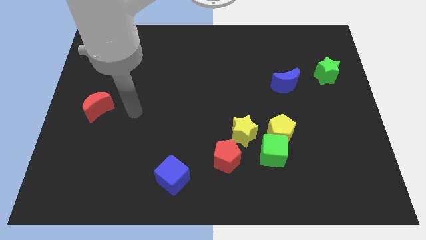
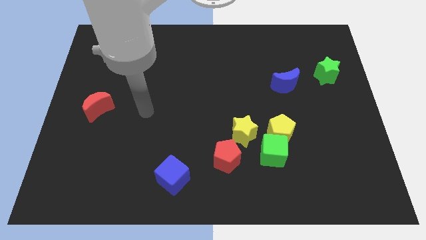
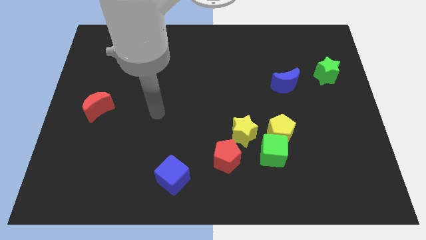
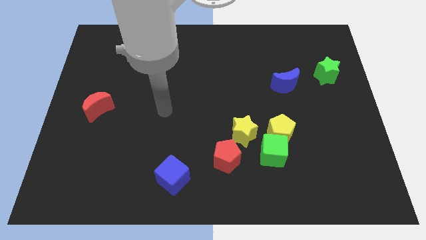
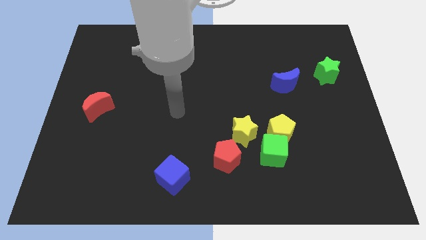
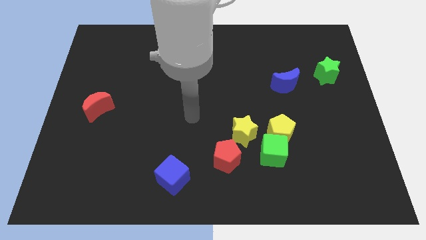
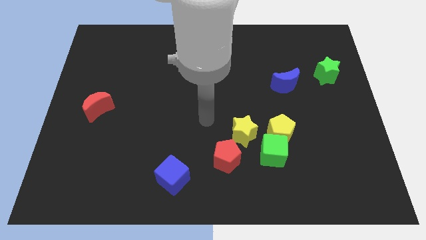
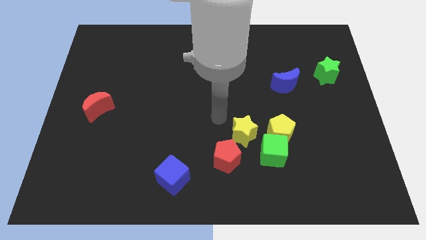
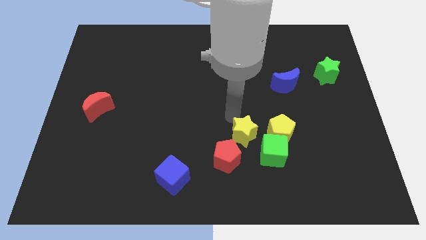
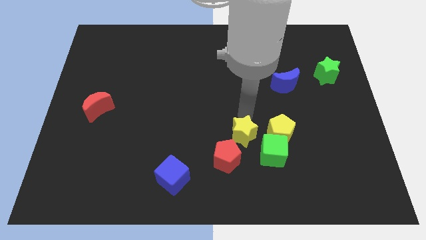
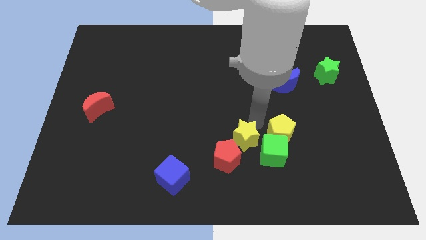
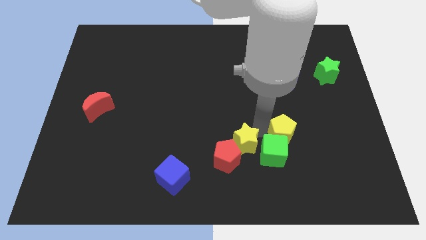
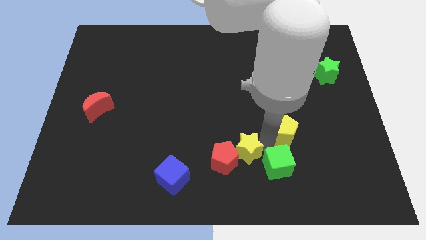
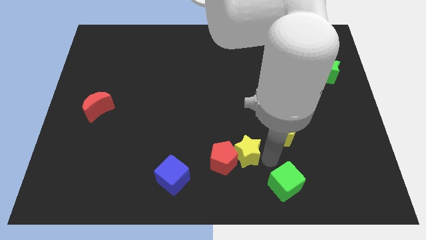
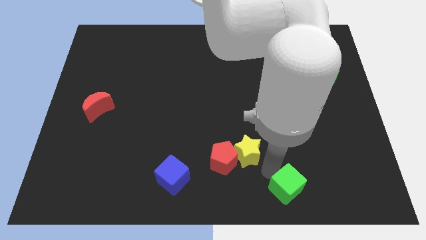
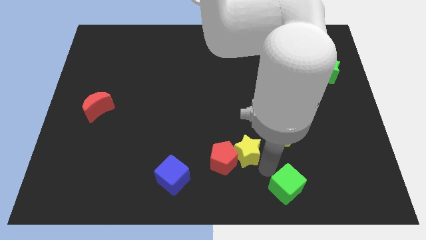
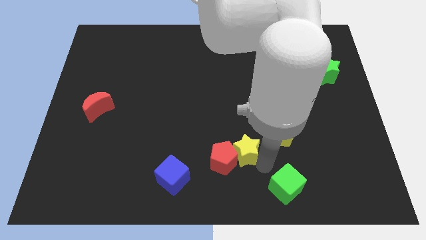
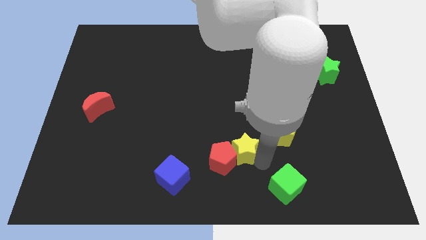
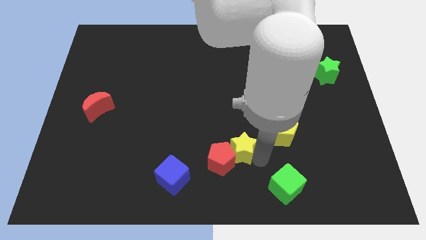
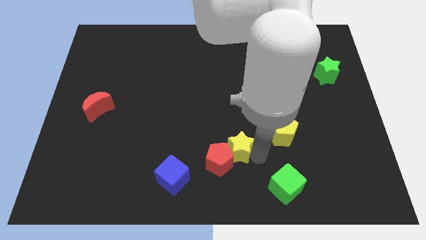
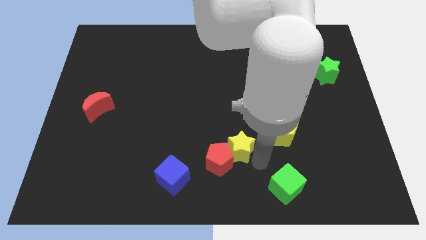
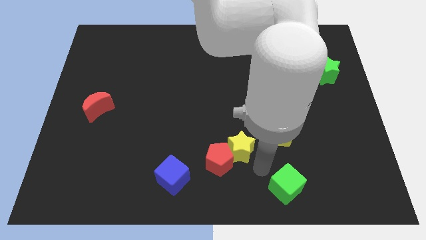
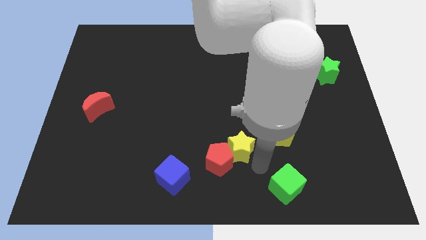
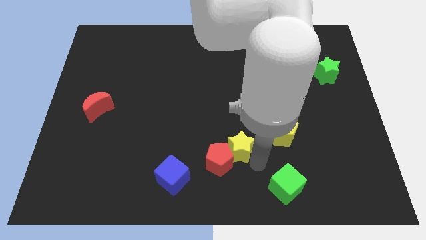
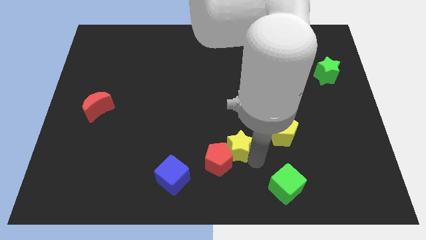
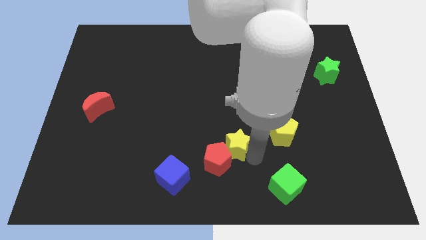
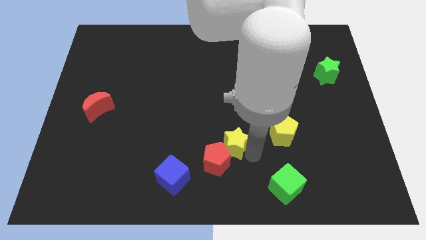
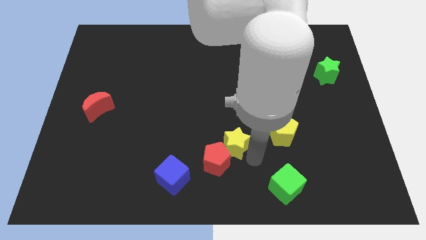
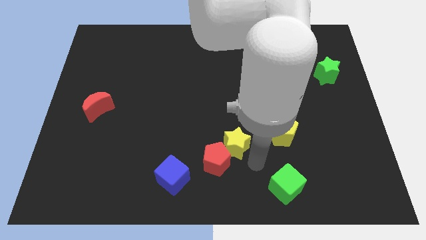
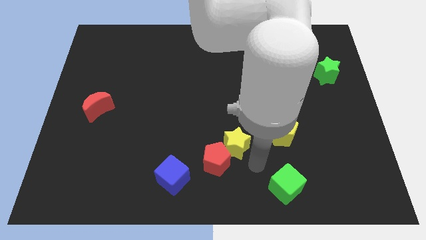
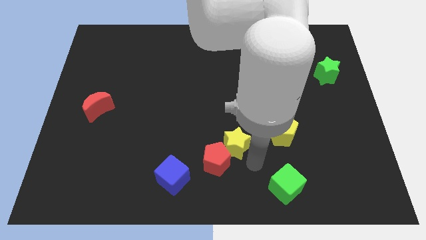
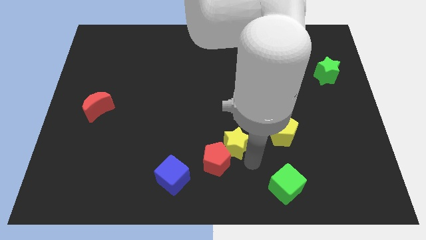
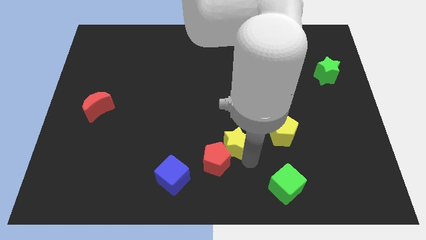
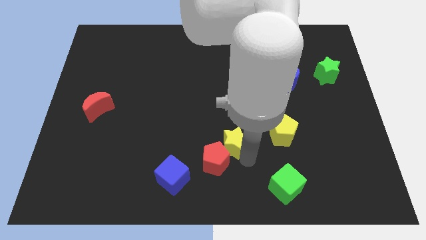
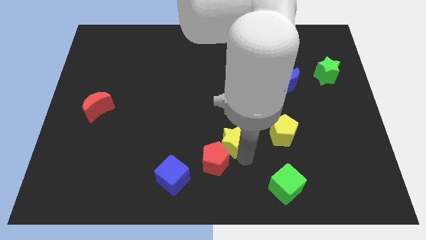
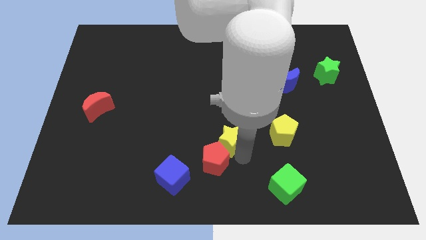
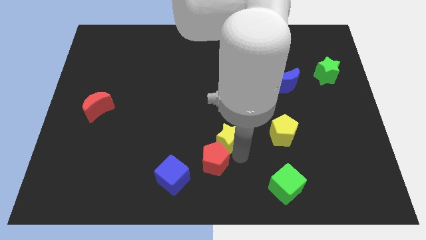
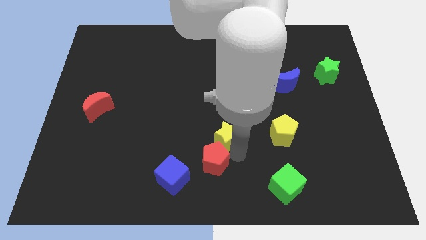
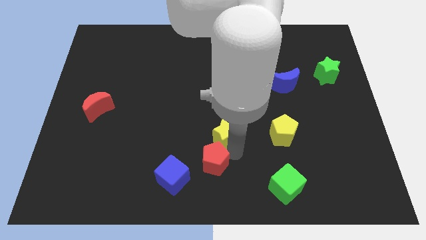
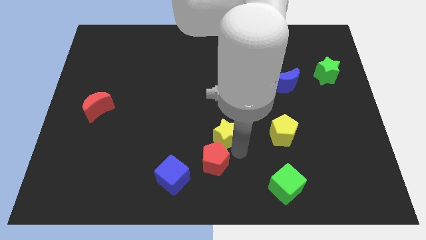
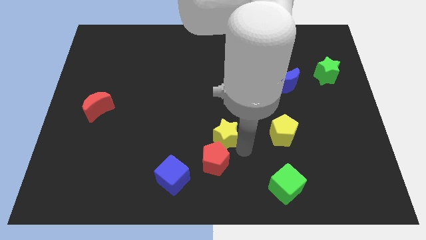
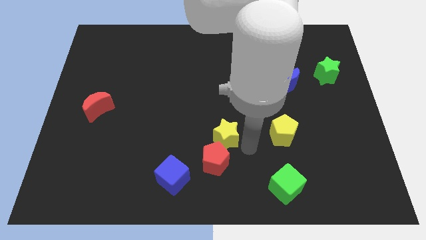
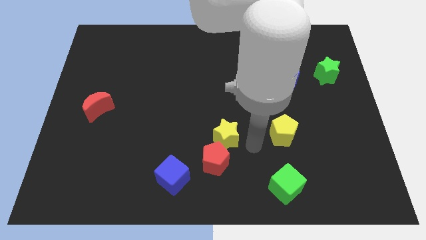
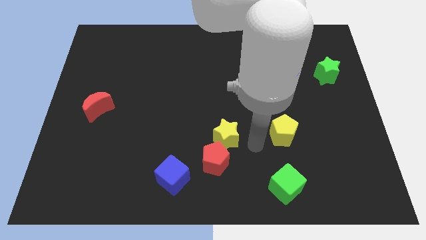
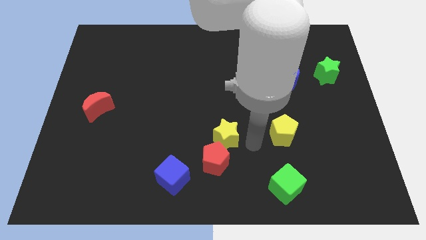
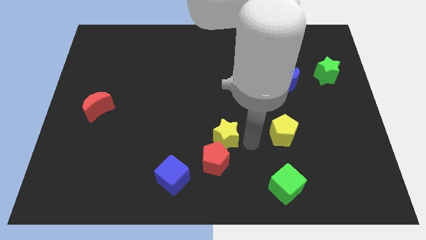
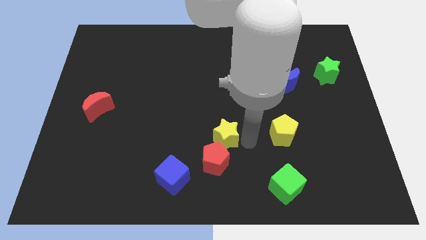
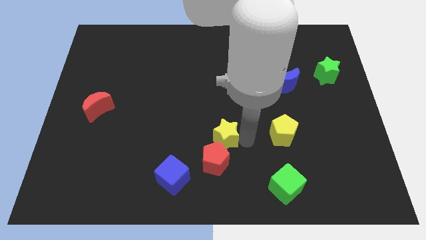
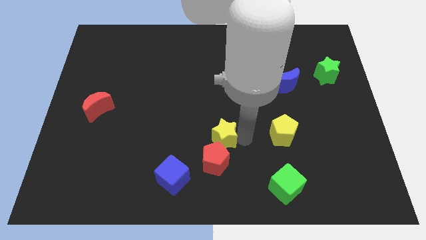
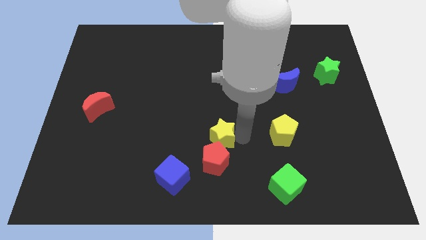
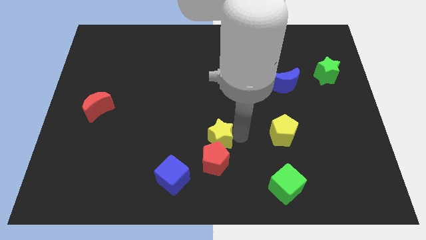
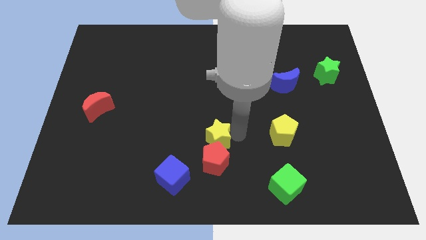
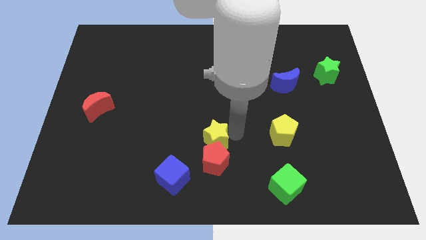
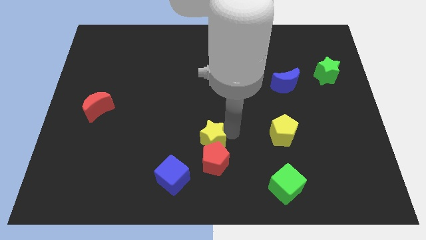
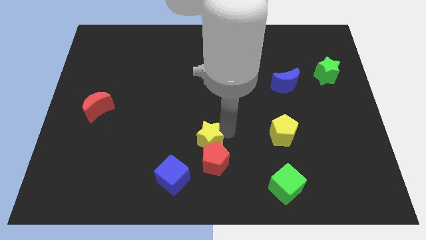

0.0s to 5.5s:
move the yellow star to the left a bit

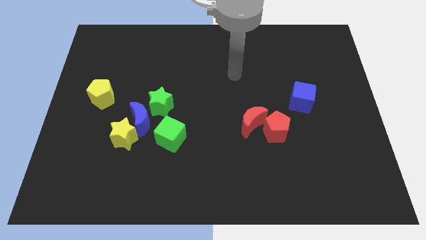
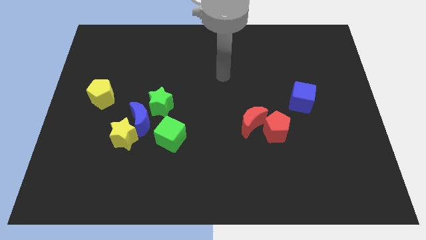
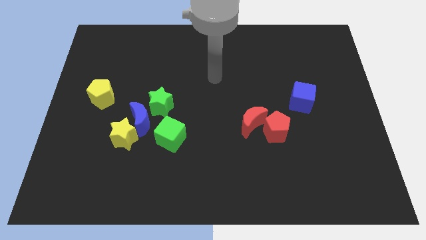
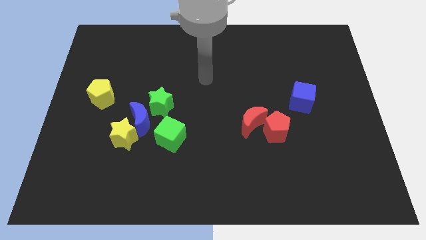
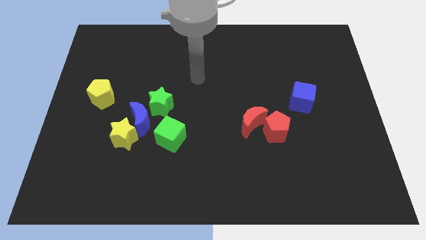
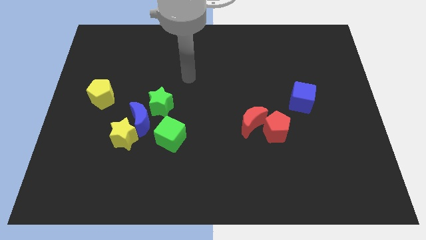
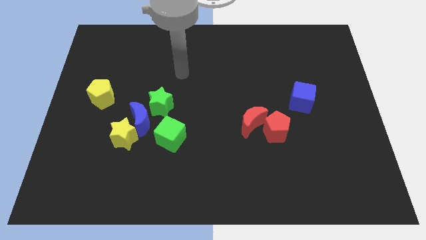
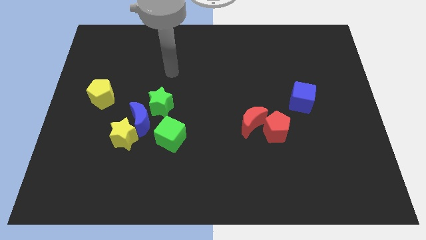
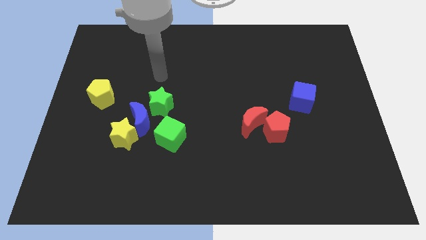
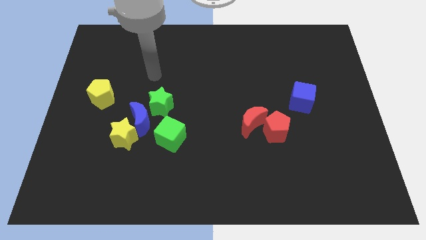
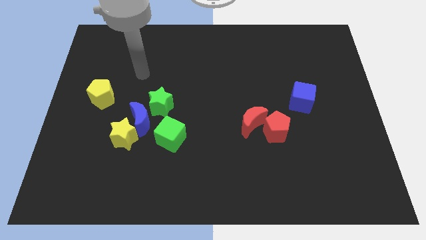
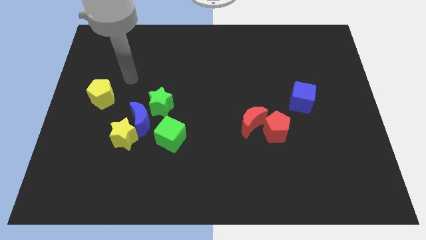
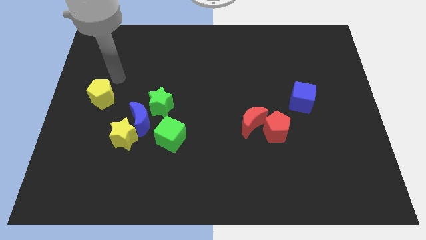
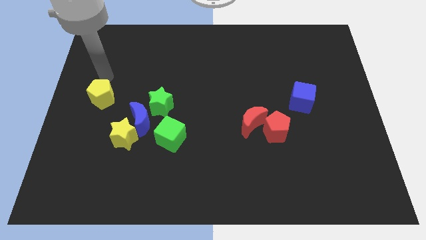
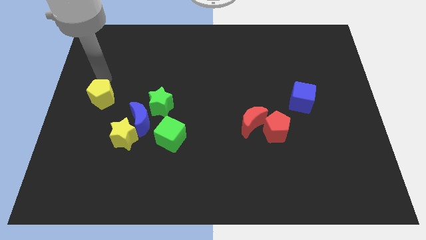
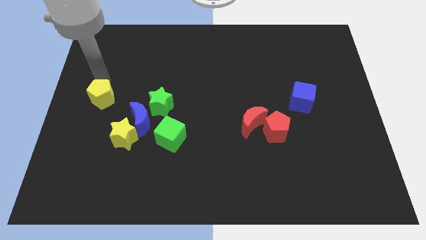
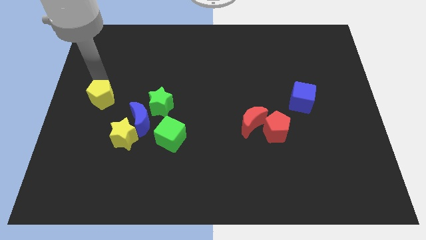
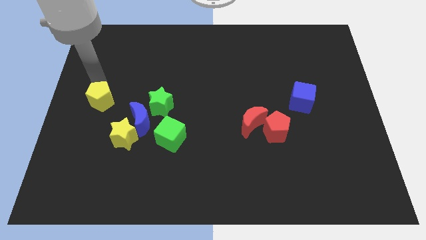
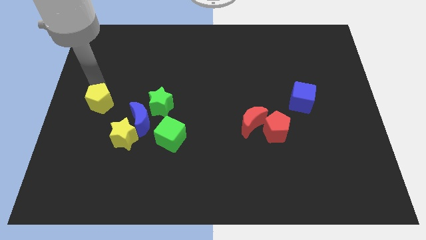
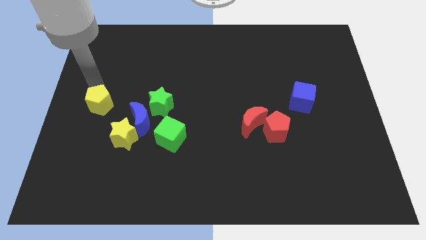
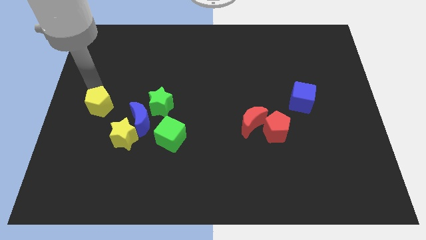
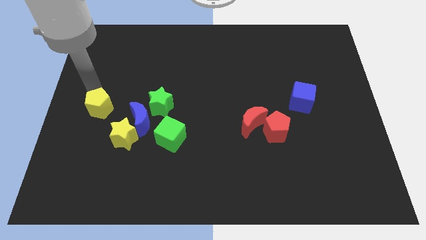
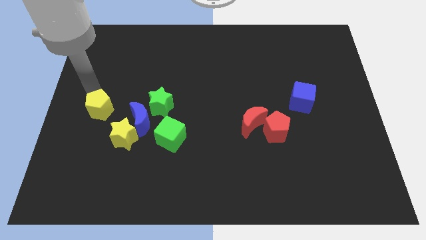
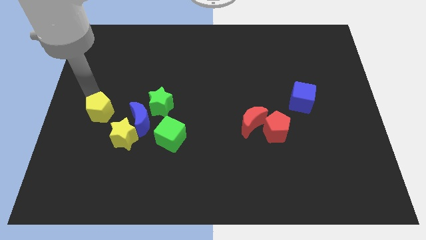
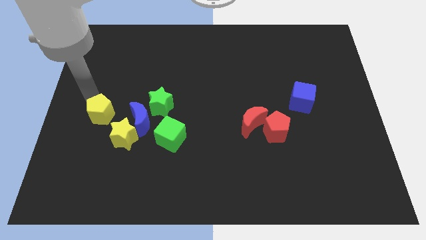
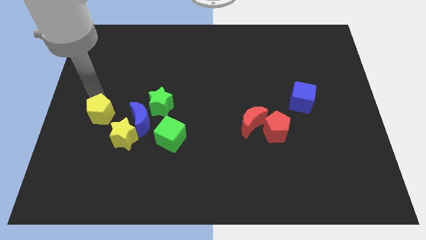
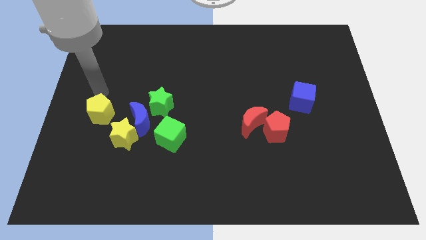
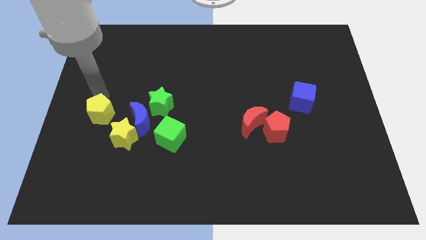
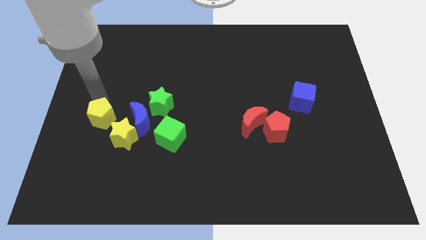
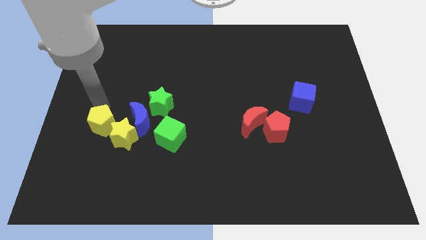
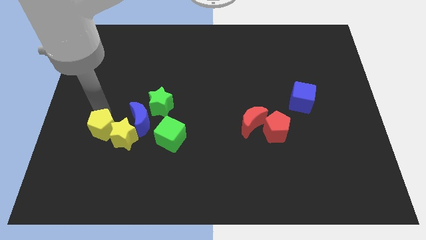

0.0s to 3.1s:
slide the yellow pentagon somewhat down and then right
